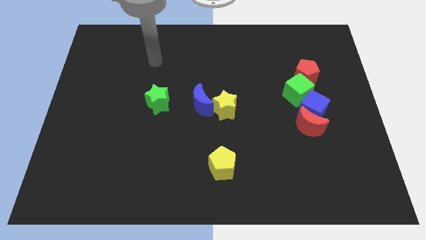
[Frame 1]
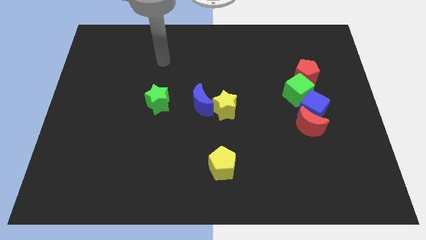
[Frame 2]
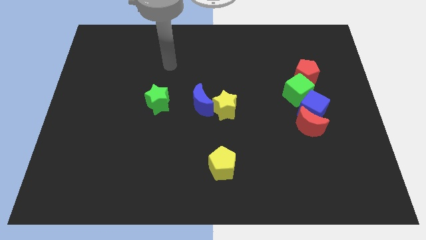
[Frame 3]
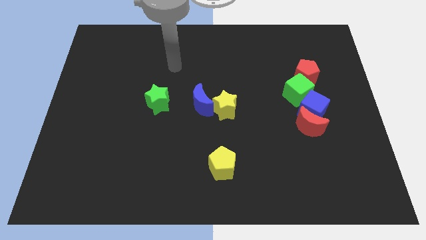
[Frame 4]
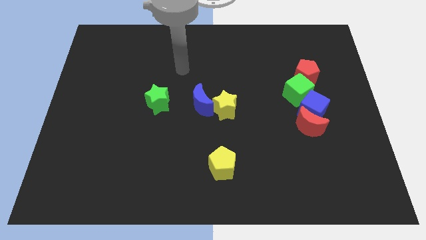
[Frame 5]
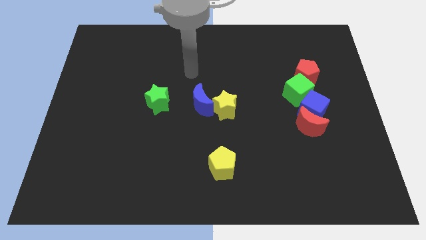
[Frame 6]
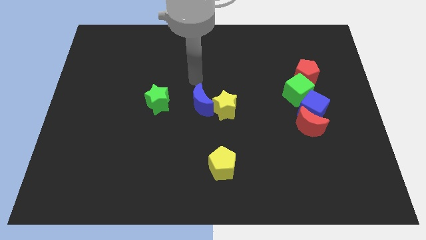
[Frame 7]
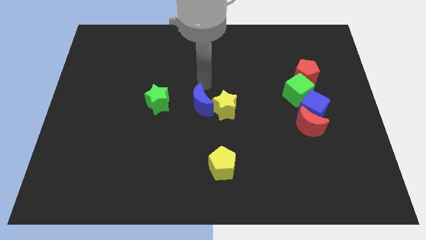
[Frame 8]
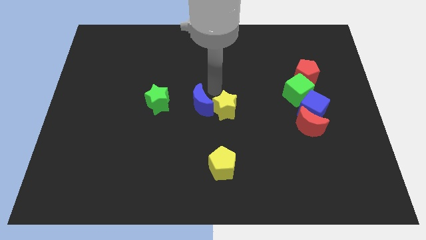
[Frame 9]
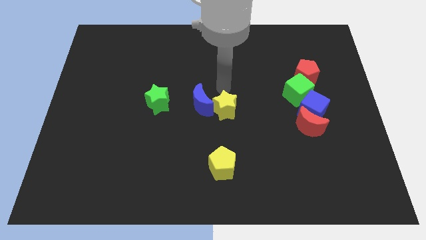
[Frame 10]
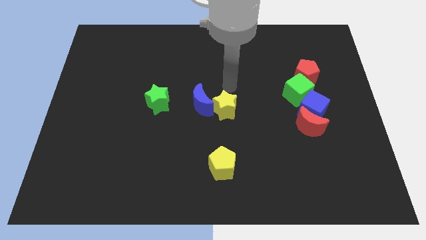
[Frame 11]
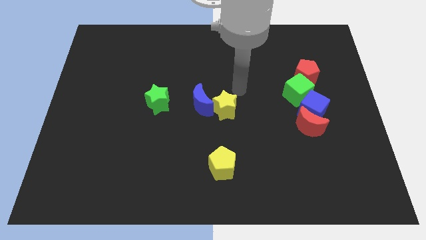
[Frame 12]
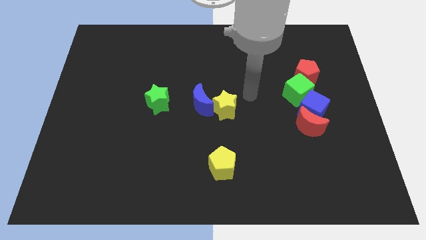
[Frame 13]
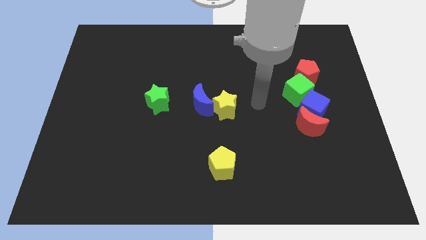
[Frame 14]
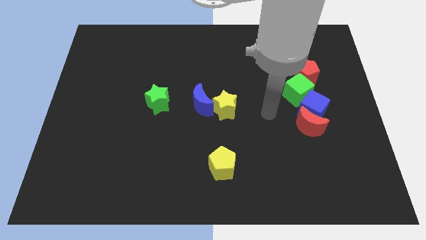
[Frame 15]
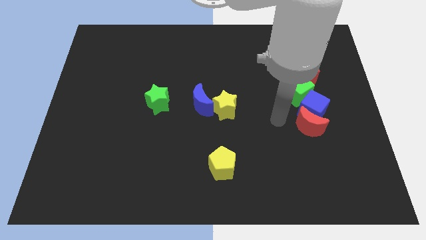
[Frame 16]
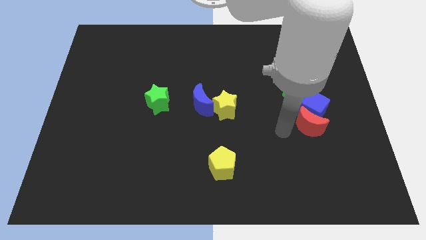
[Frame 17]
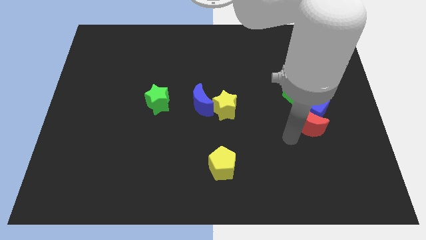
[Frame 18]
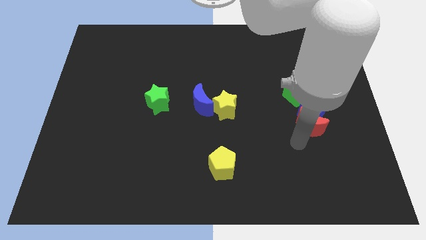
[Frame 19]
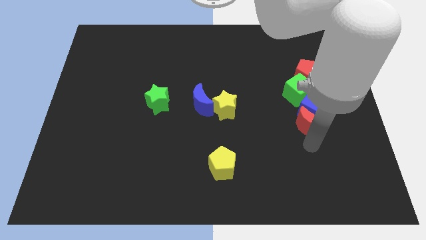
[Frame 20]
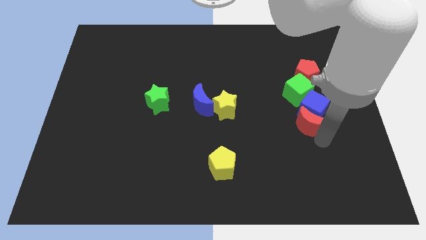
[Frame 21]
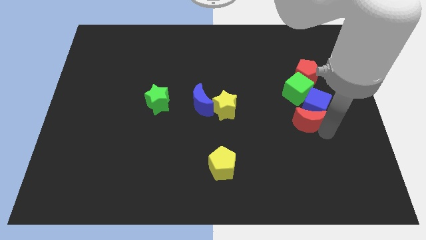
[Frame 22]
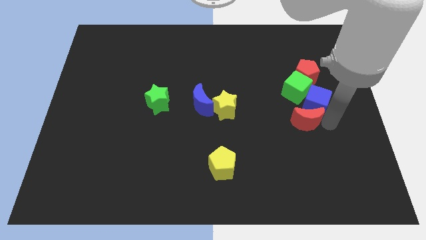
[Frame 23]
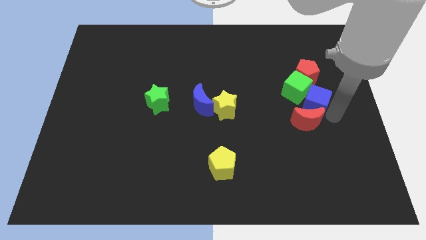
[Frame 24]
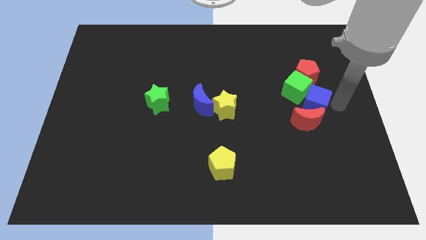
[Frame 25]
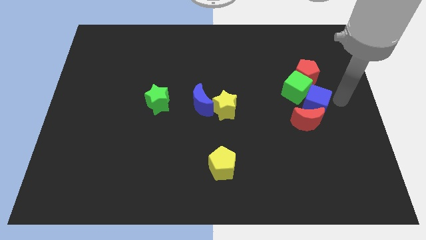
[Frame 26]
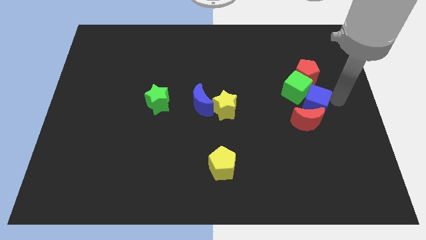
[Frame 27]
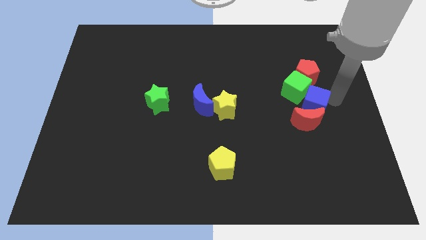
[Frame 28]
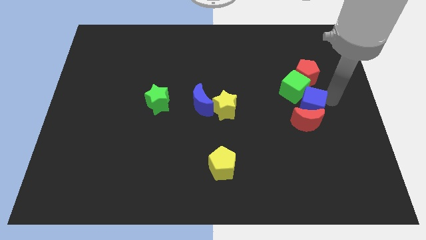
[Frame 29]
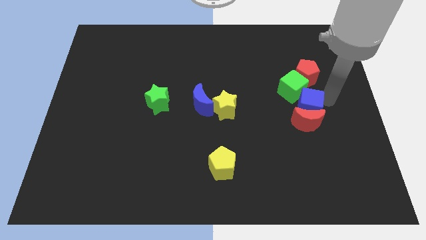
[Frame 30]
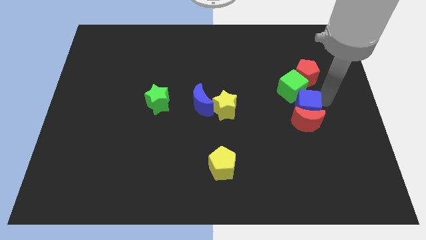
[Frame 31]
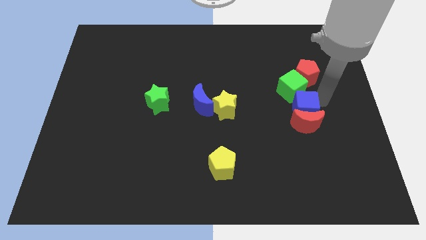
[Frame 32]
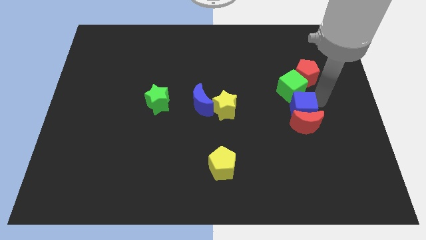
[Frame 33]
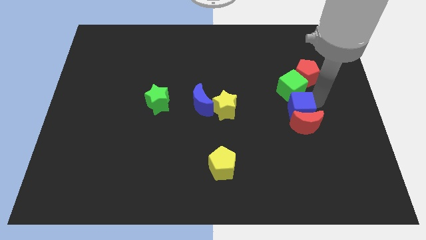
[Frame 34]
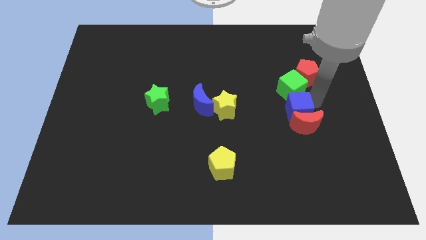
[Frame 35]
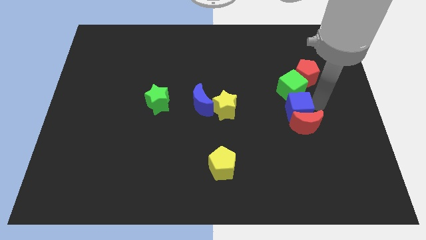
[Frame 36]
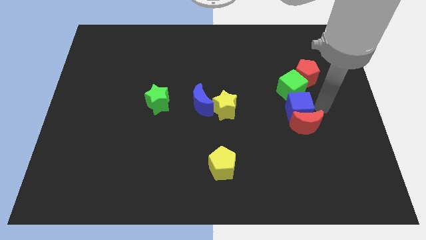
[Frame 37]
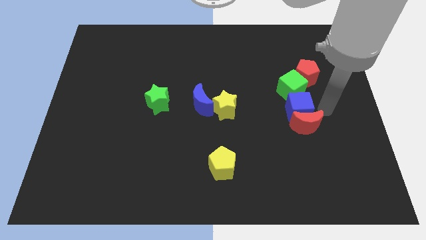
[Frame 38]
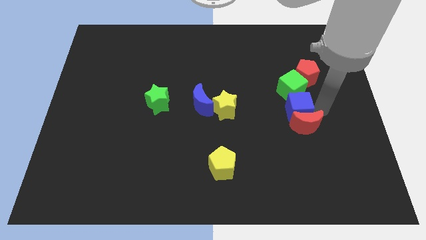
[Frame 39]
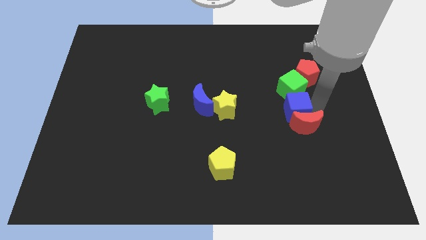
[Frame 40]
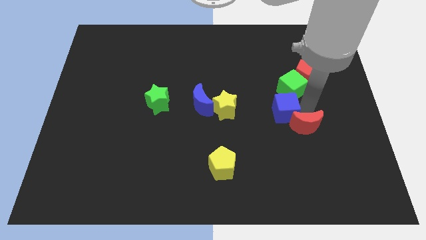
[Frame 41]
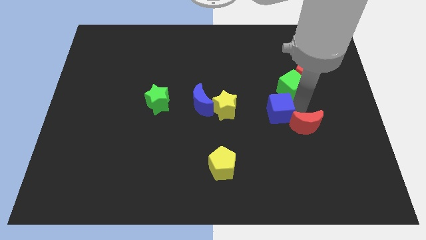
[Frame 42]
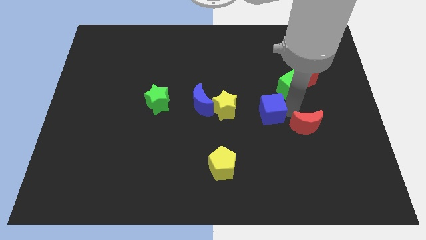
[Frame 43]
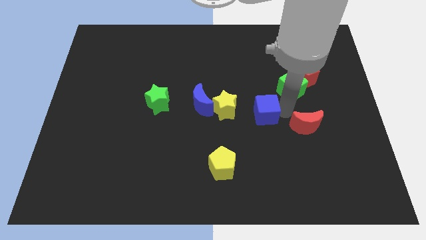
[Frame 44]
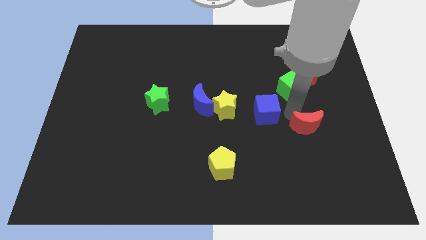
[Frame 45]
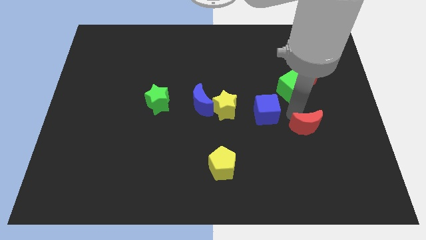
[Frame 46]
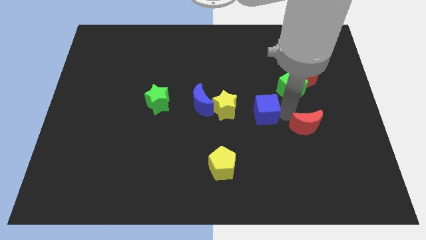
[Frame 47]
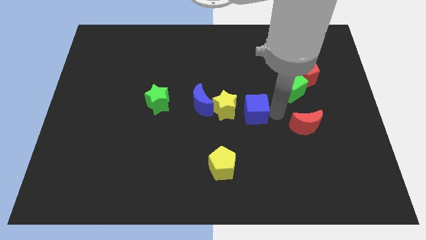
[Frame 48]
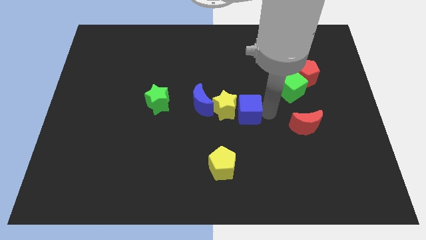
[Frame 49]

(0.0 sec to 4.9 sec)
put the blue cube to the yellow star

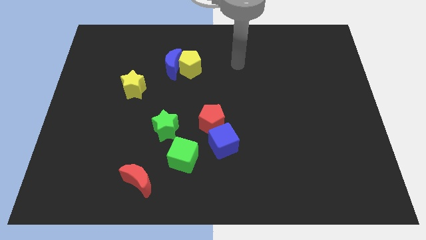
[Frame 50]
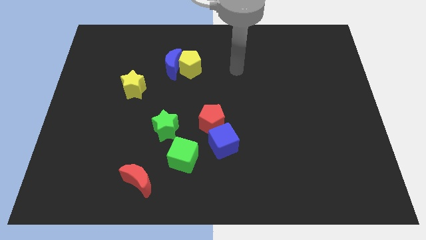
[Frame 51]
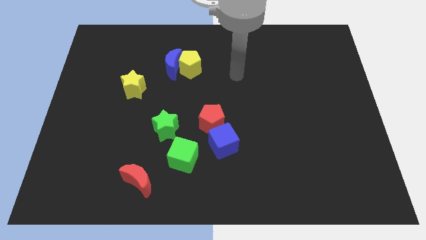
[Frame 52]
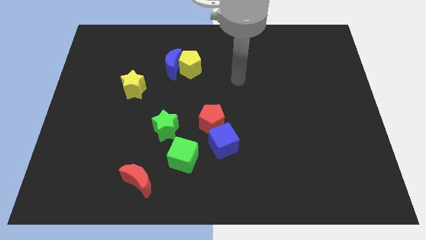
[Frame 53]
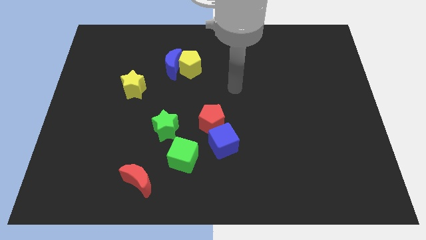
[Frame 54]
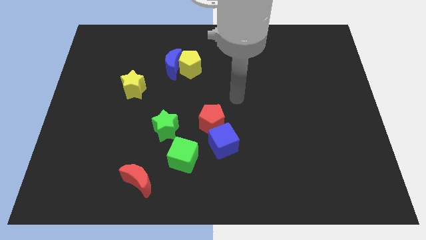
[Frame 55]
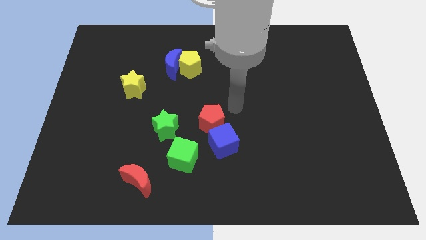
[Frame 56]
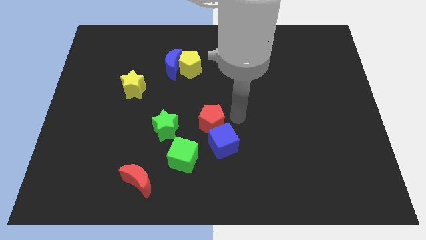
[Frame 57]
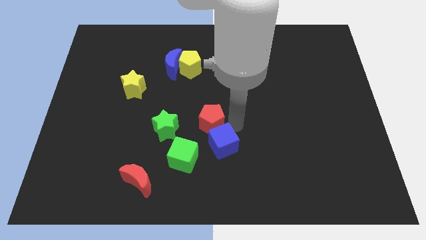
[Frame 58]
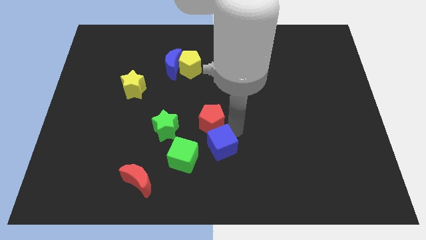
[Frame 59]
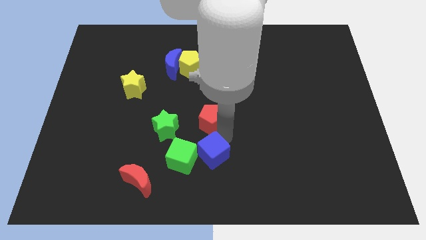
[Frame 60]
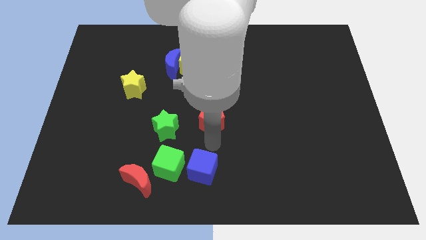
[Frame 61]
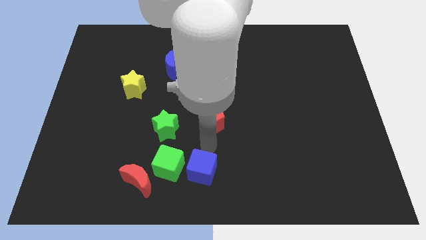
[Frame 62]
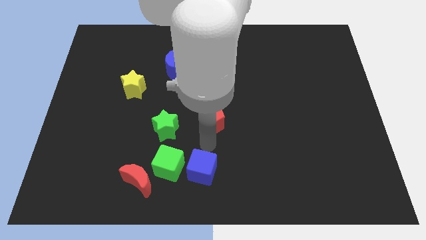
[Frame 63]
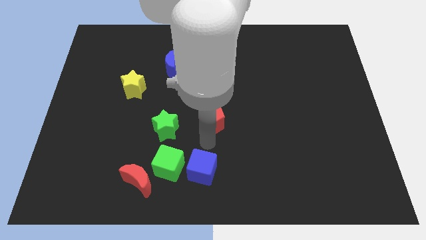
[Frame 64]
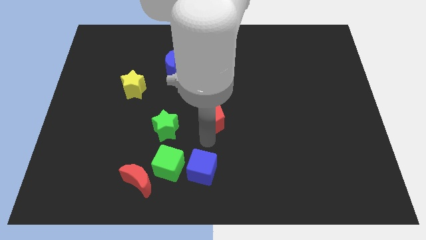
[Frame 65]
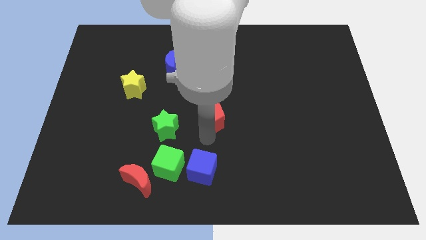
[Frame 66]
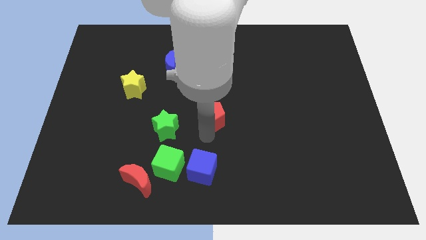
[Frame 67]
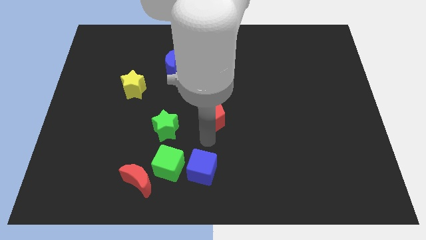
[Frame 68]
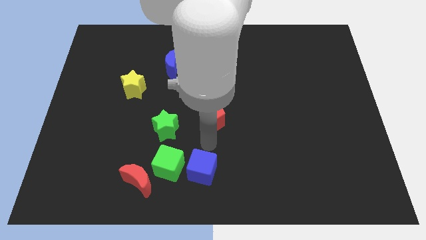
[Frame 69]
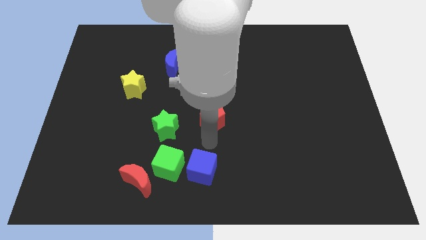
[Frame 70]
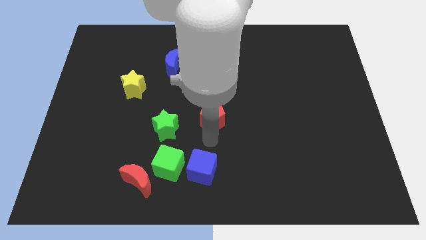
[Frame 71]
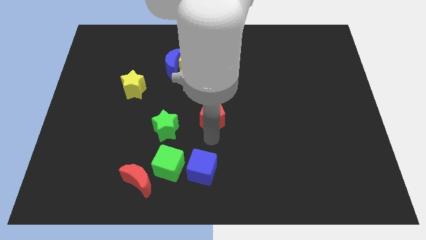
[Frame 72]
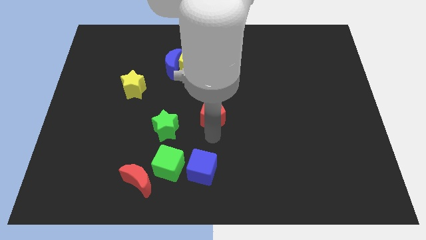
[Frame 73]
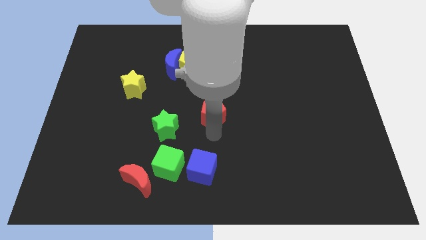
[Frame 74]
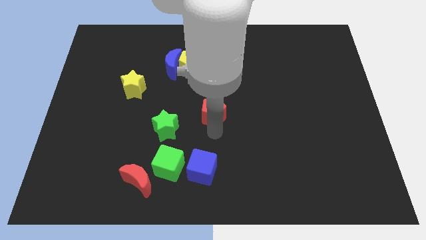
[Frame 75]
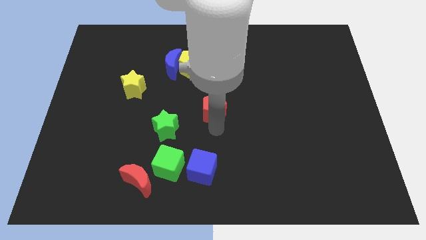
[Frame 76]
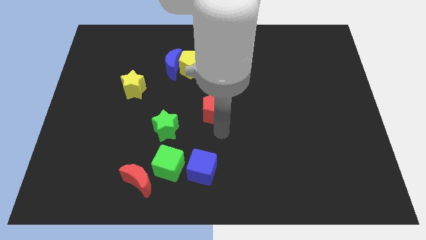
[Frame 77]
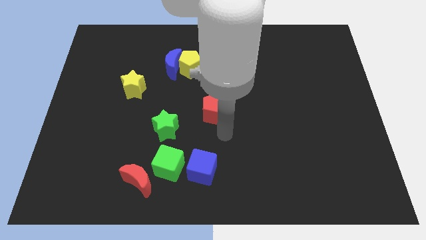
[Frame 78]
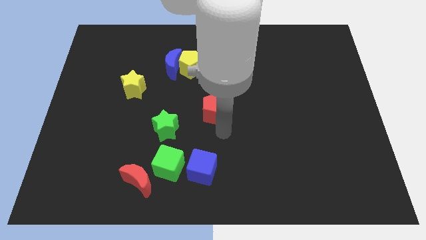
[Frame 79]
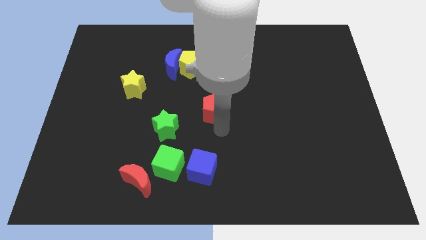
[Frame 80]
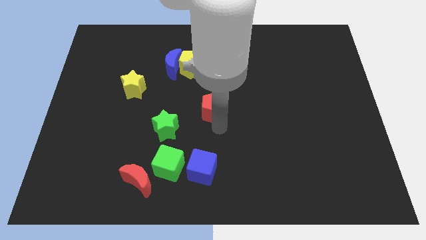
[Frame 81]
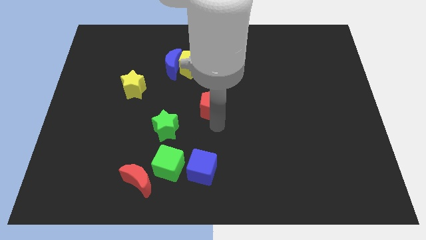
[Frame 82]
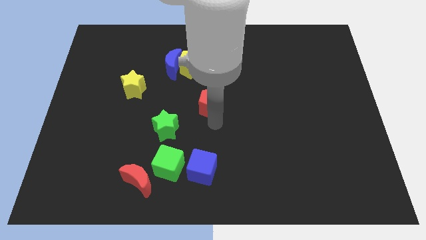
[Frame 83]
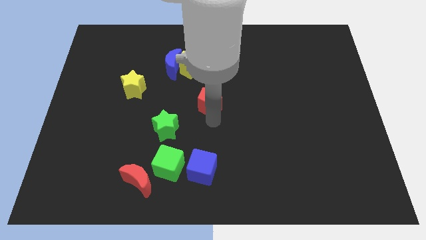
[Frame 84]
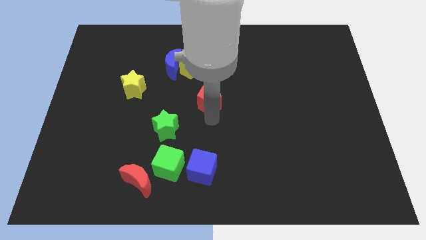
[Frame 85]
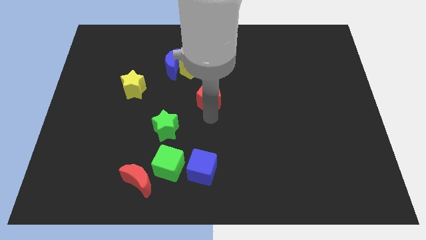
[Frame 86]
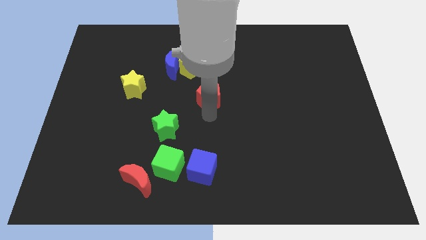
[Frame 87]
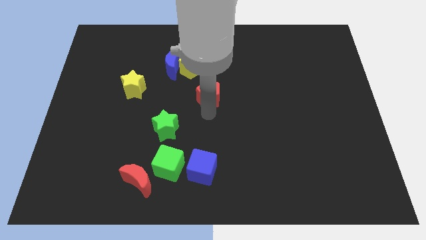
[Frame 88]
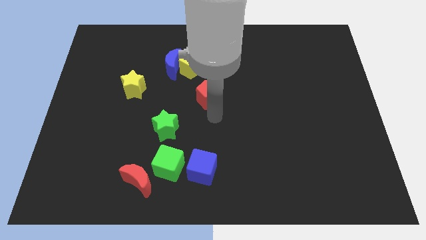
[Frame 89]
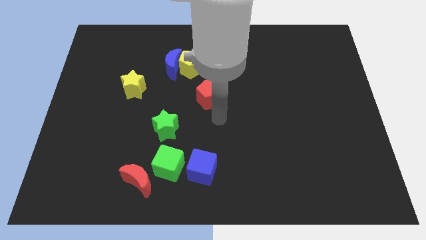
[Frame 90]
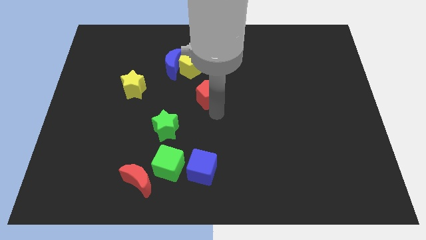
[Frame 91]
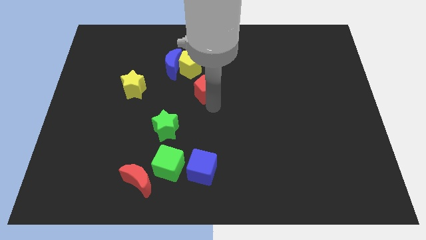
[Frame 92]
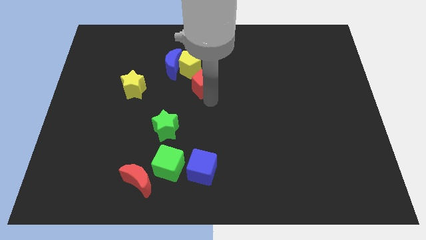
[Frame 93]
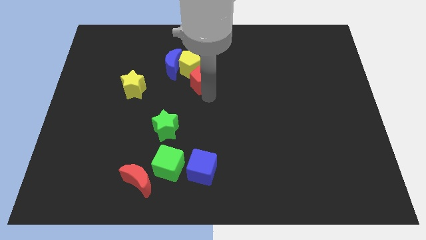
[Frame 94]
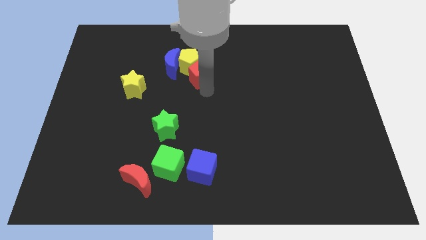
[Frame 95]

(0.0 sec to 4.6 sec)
slide the red pentagon next to the yellow pentagon
